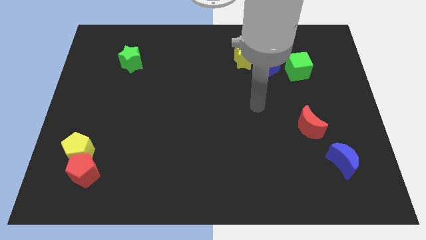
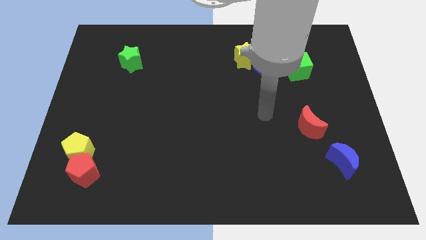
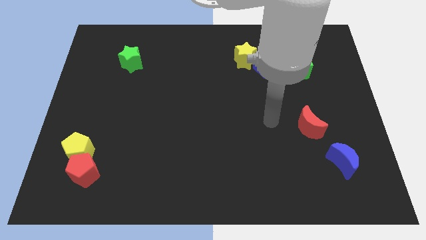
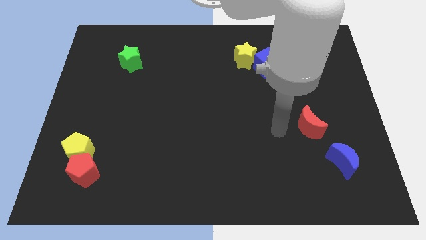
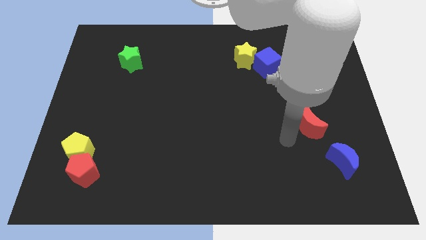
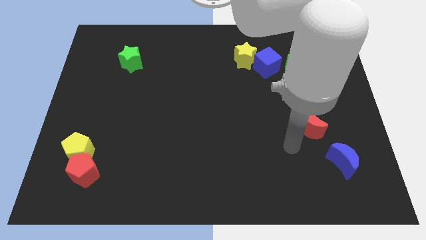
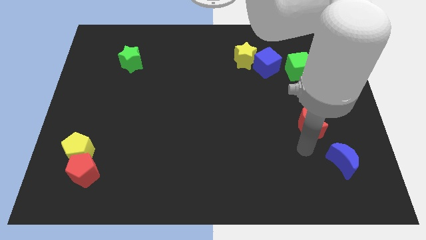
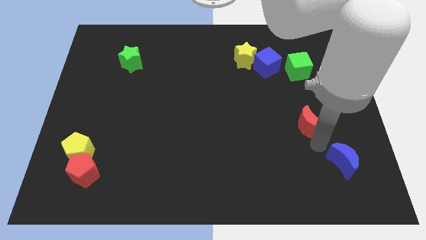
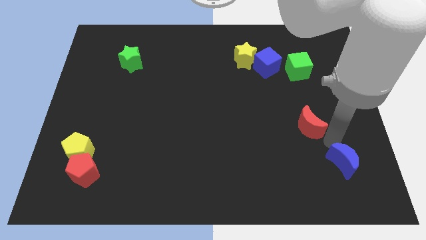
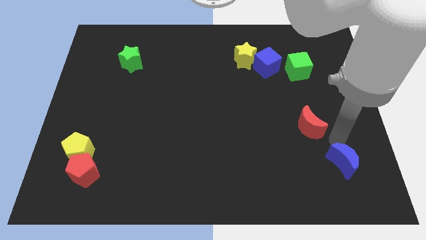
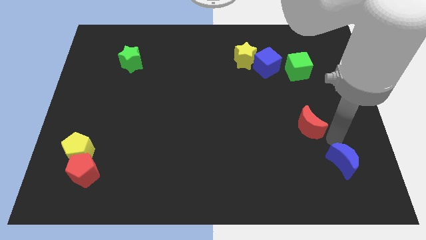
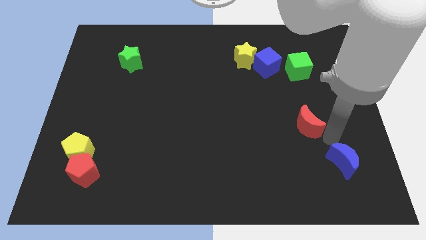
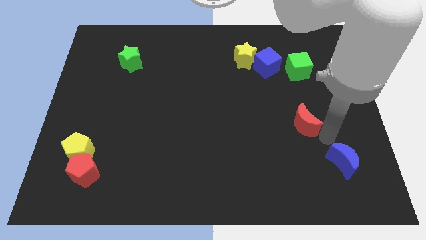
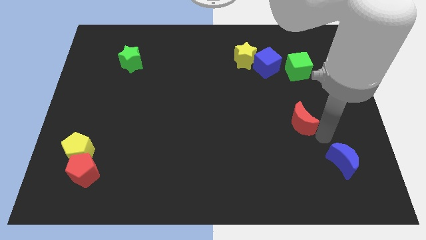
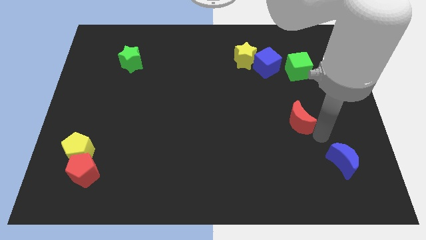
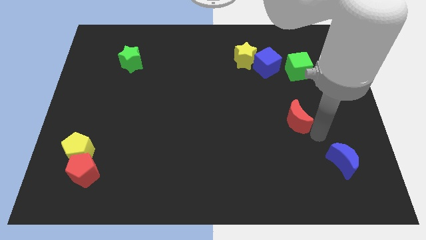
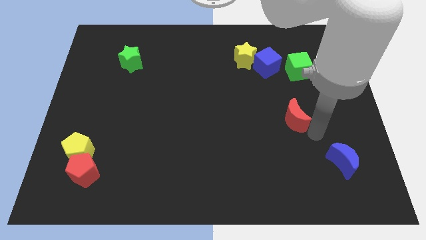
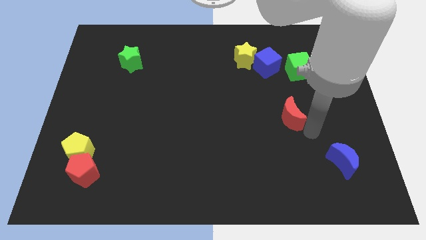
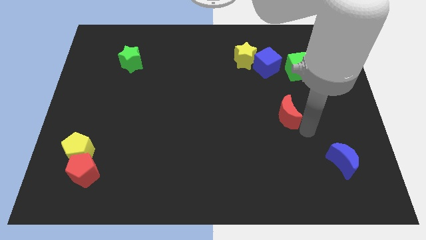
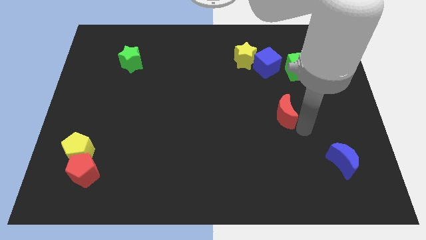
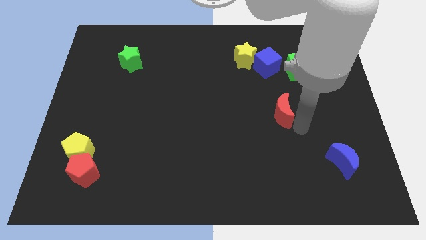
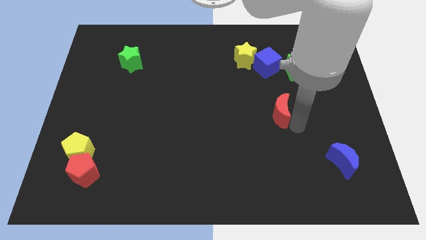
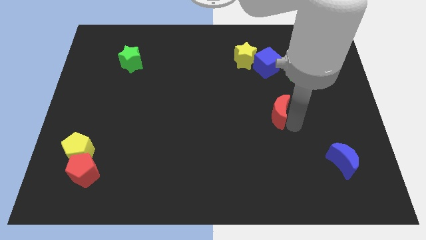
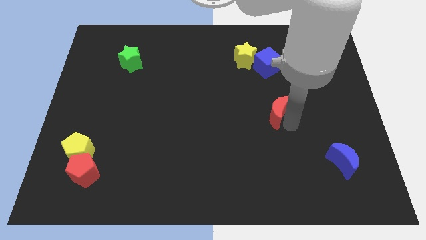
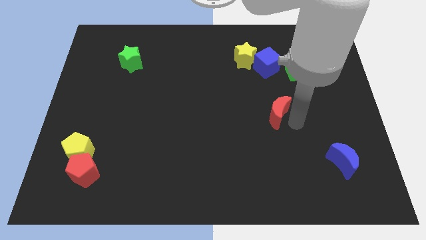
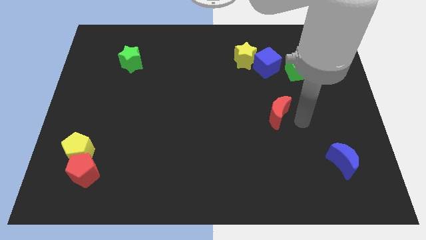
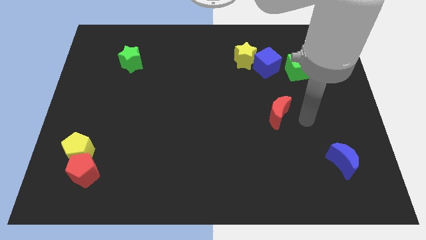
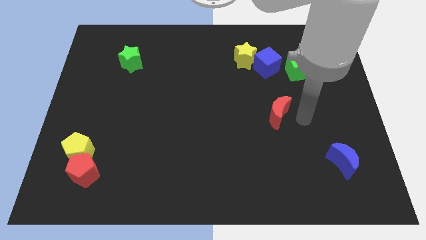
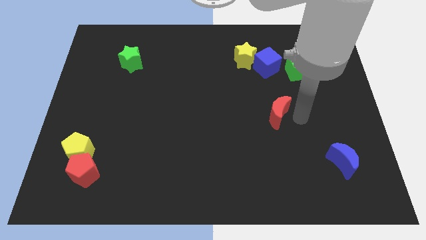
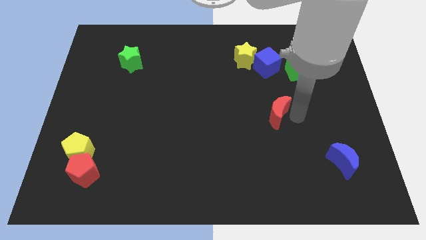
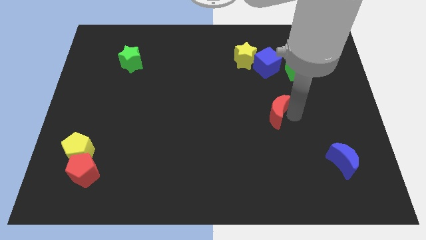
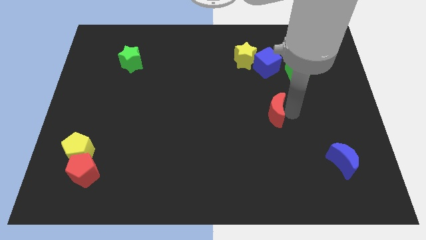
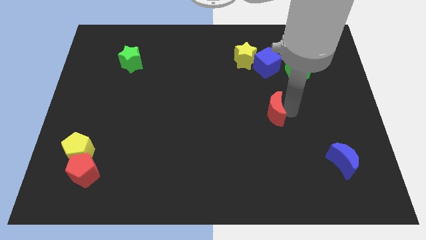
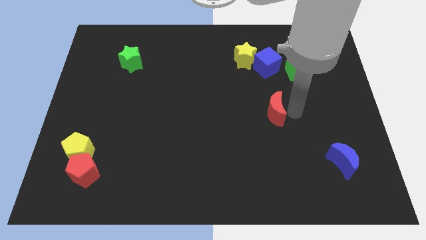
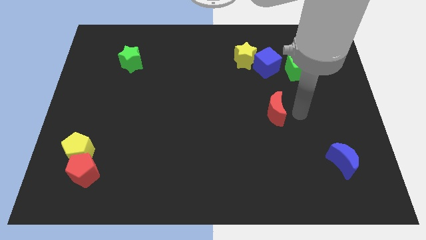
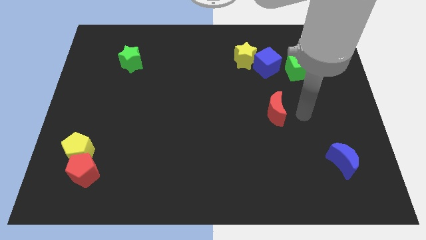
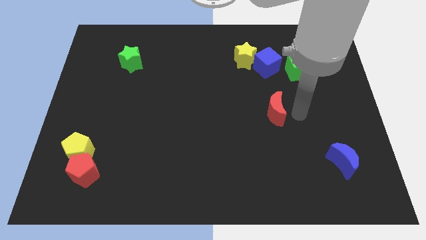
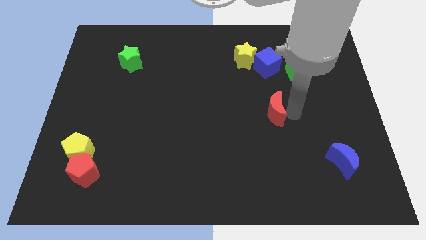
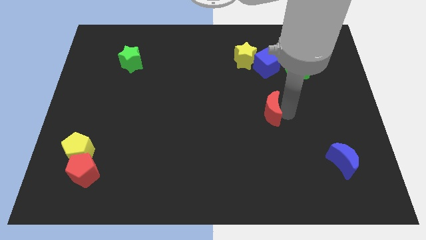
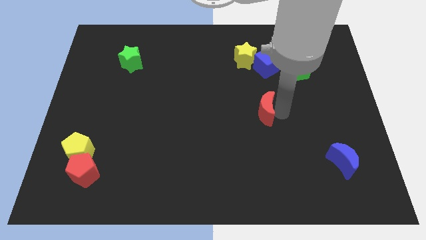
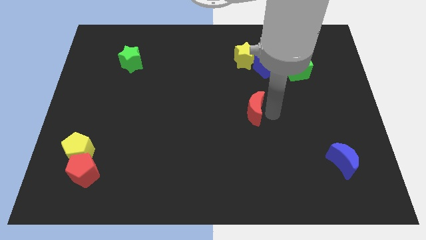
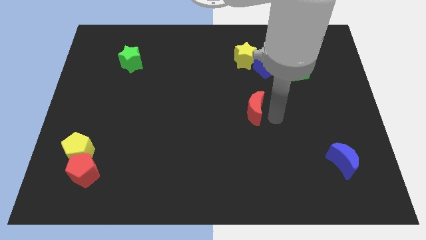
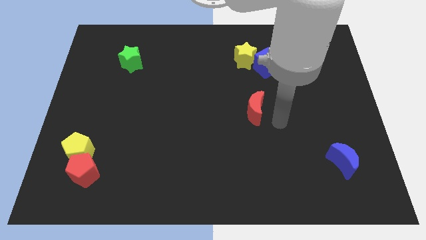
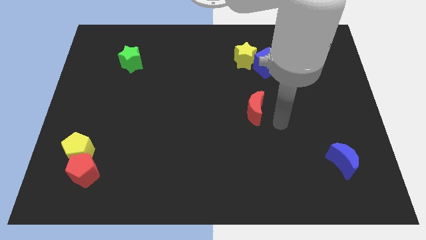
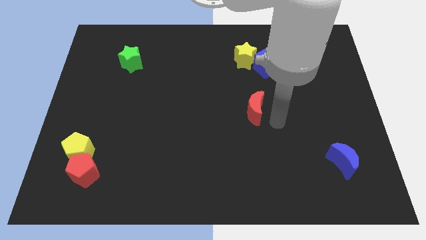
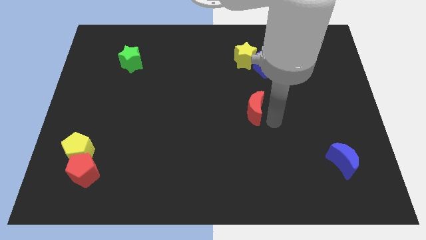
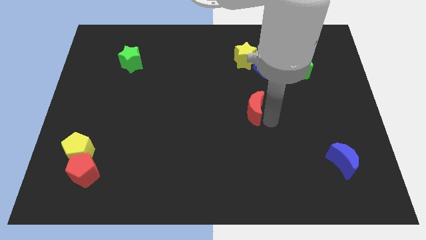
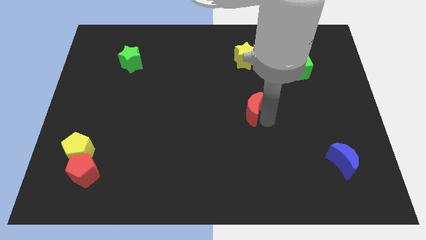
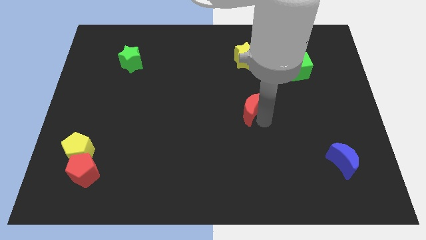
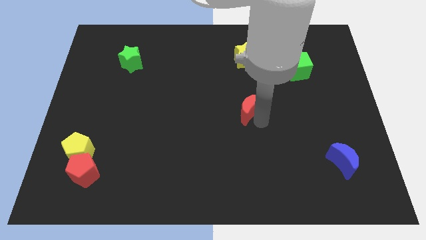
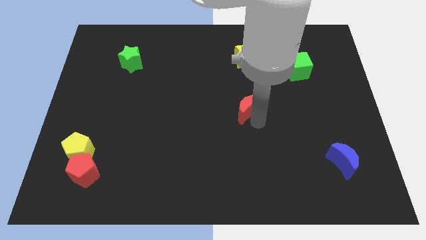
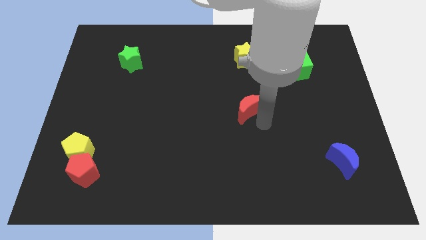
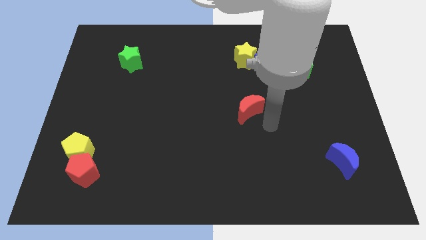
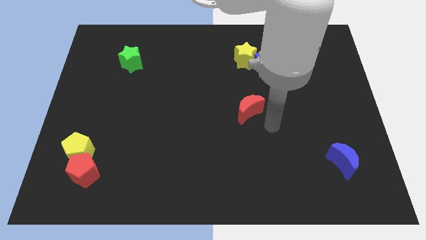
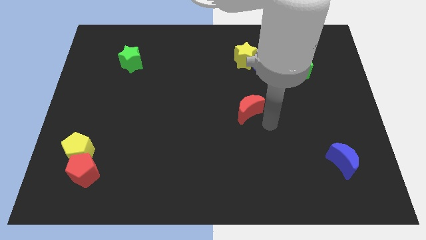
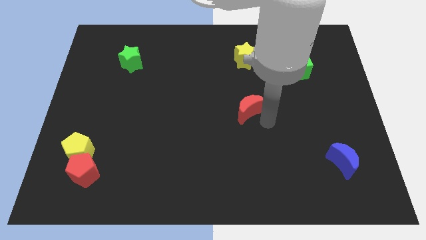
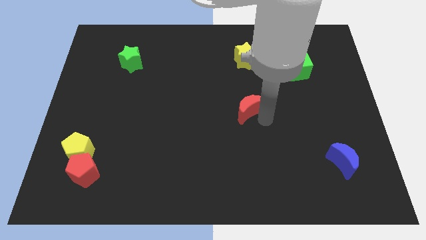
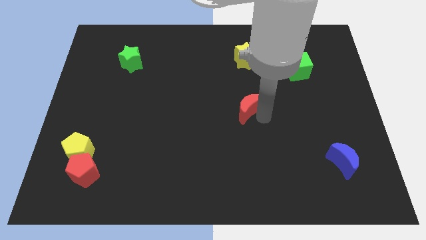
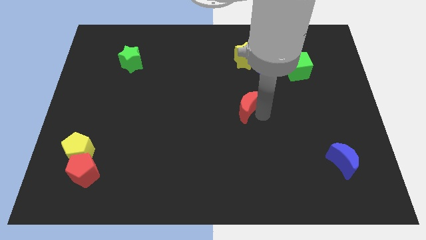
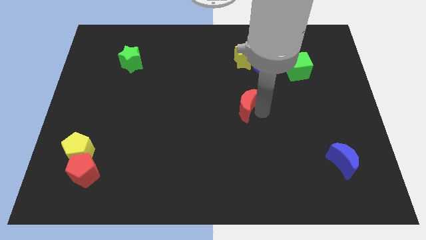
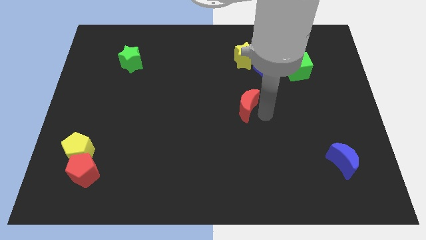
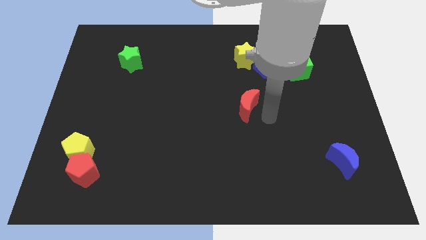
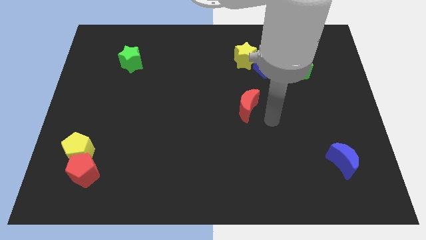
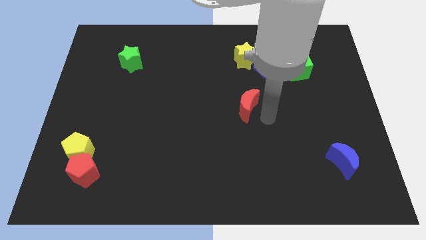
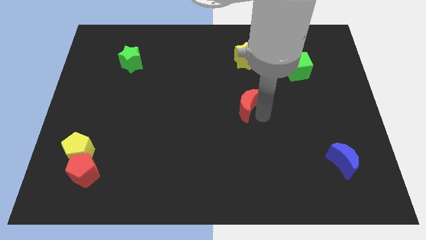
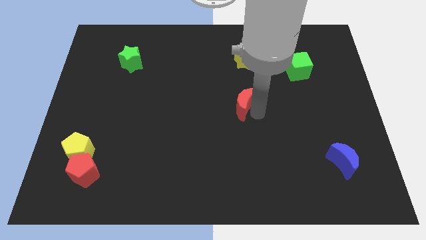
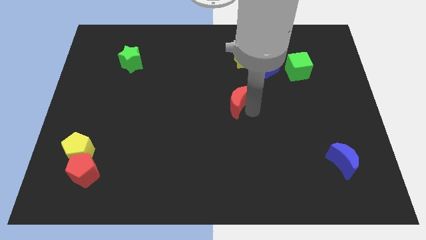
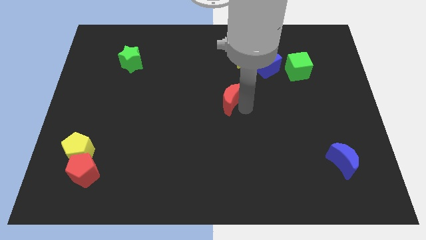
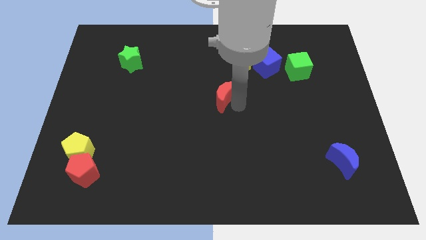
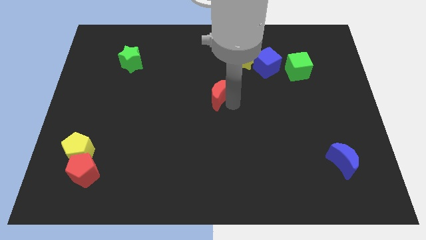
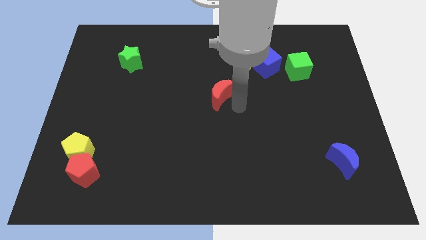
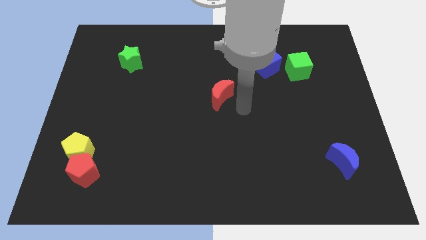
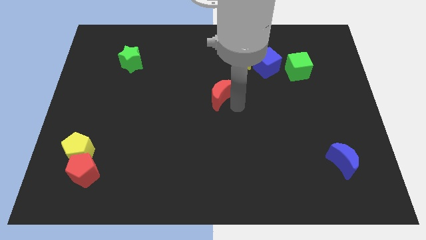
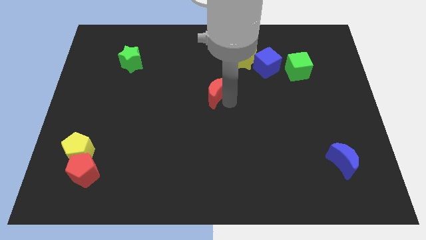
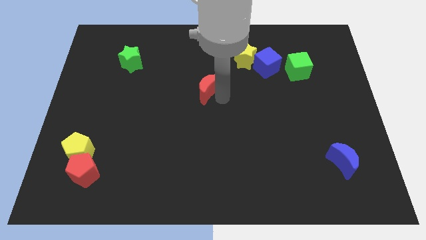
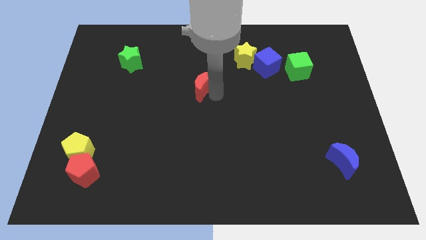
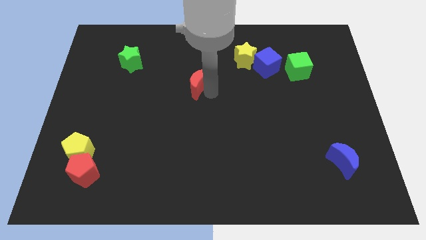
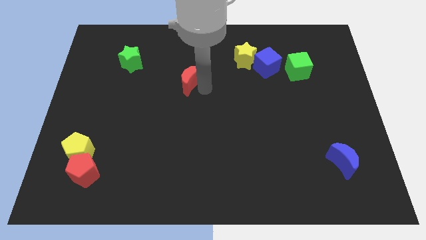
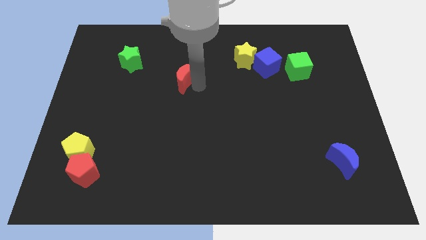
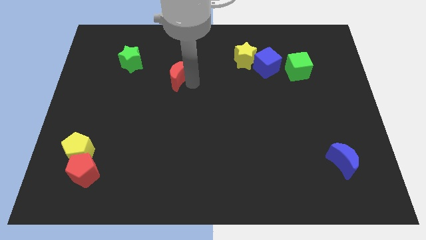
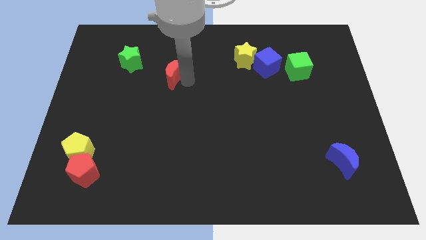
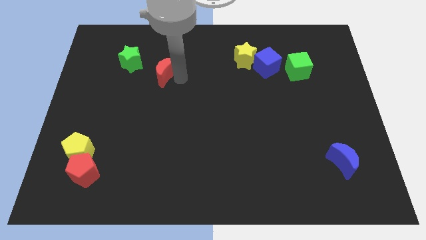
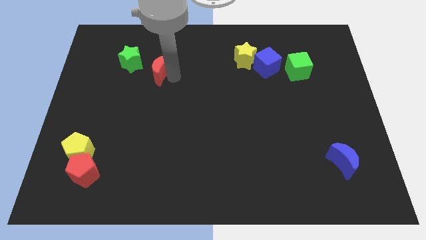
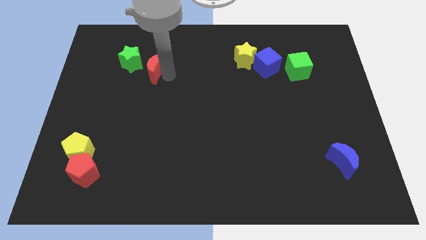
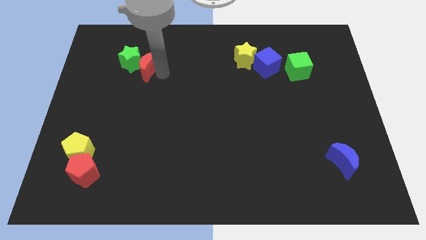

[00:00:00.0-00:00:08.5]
put the red moon towards the green star
